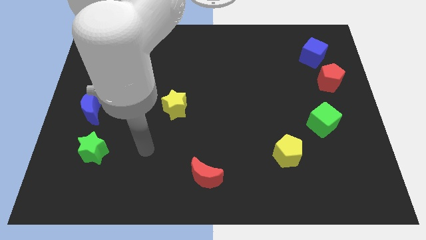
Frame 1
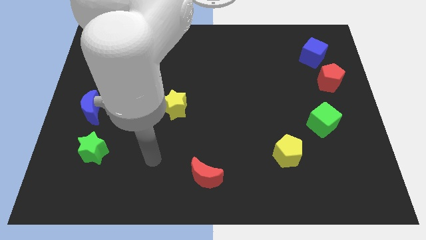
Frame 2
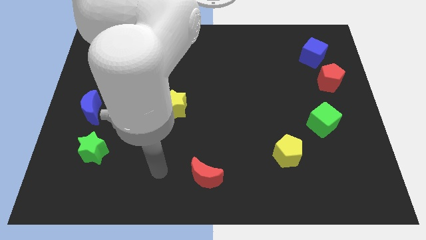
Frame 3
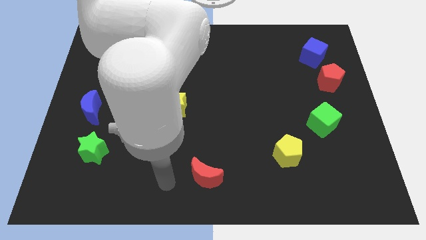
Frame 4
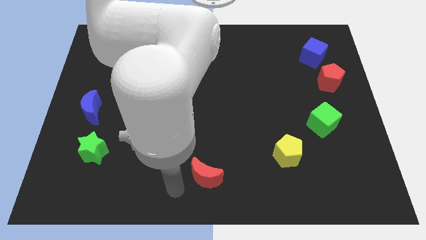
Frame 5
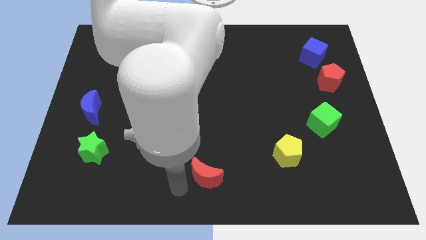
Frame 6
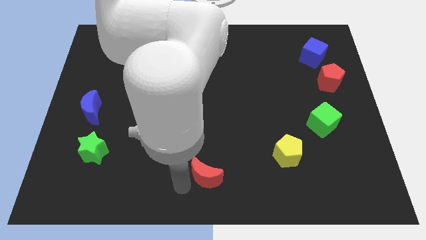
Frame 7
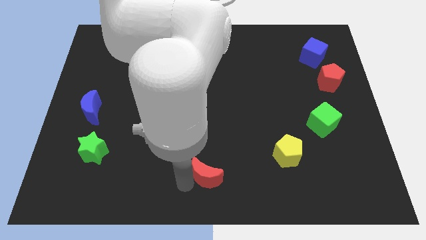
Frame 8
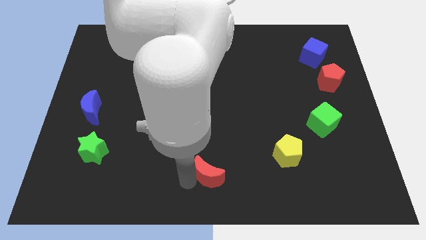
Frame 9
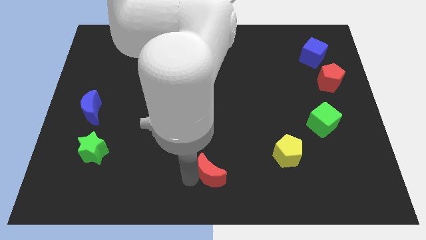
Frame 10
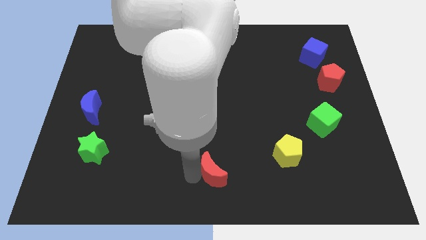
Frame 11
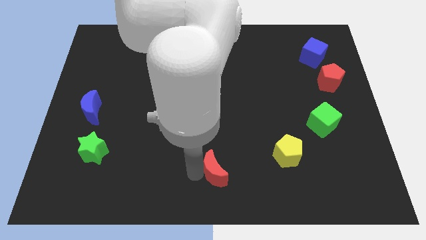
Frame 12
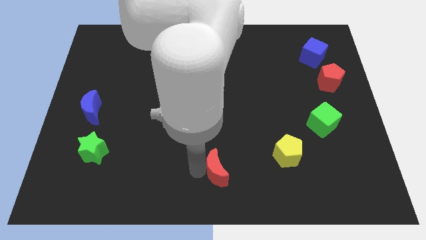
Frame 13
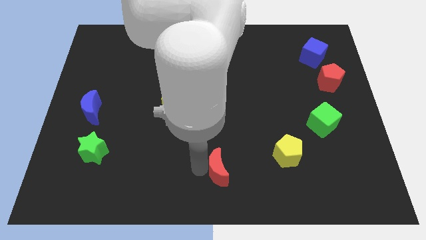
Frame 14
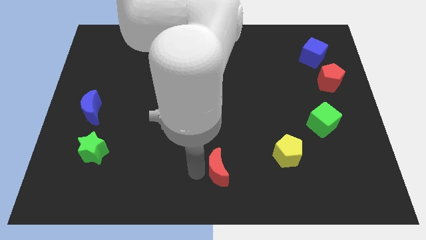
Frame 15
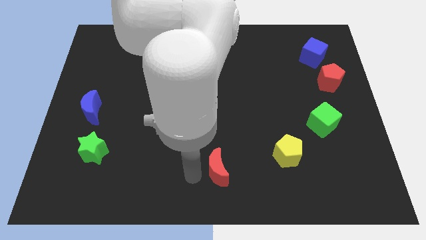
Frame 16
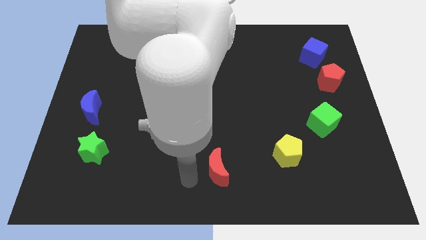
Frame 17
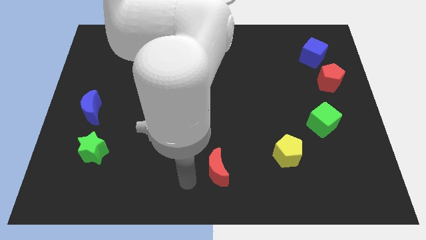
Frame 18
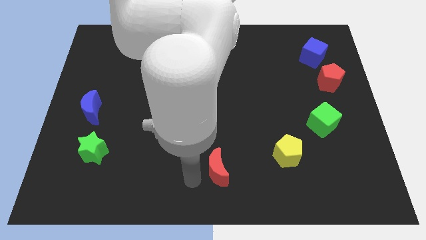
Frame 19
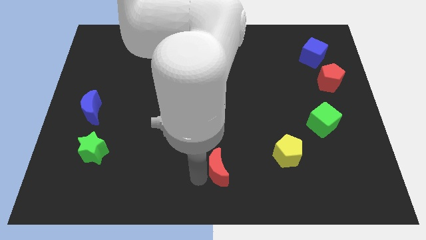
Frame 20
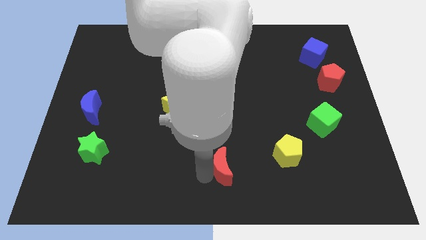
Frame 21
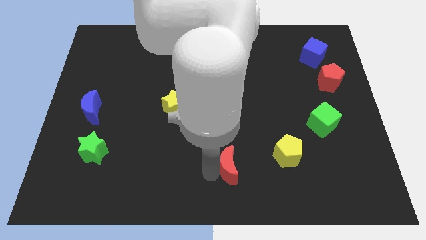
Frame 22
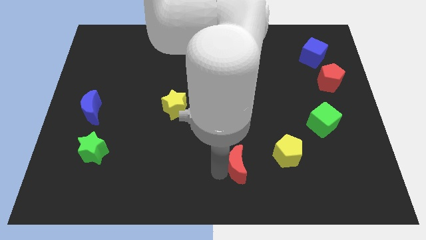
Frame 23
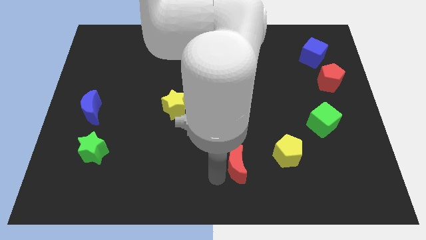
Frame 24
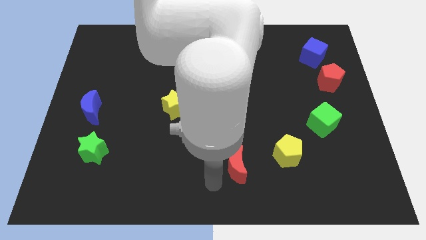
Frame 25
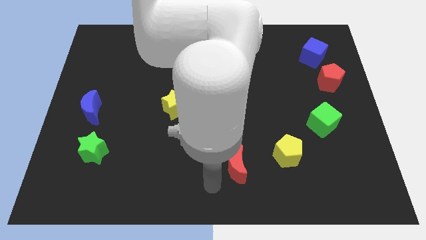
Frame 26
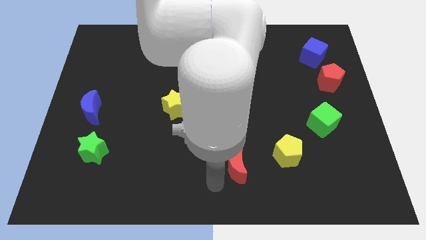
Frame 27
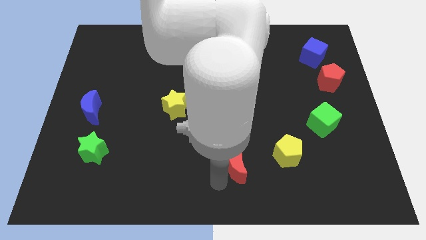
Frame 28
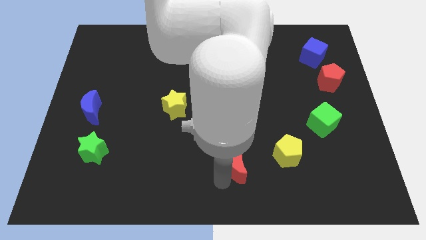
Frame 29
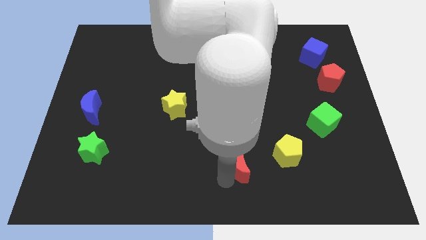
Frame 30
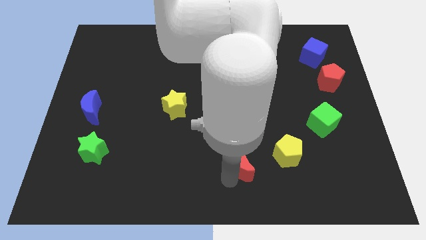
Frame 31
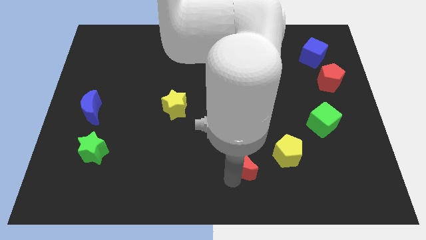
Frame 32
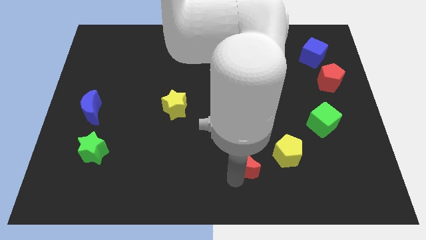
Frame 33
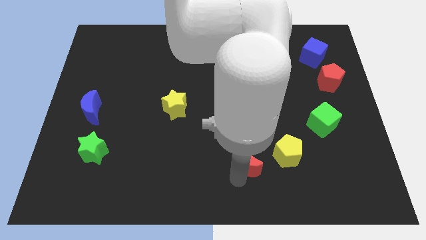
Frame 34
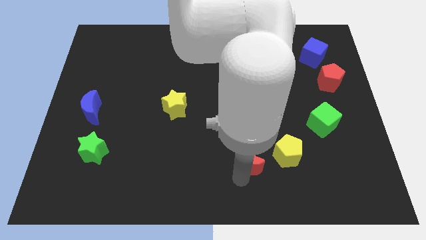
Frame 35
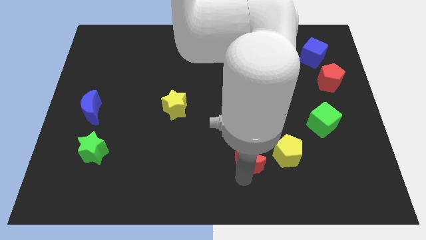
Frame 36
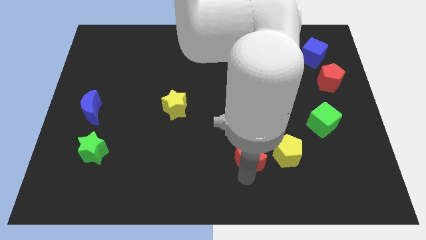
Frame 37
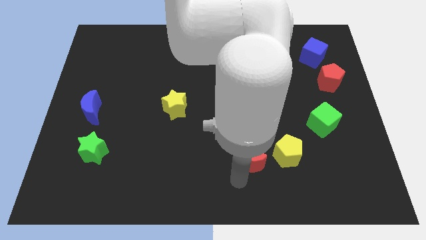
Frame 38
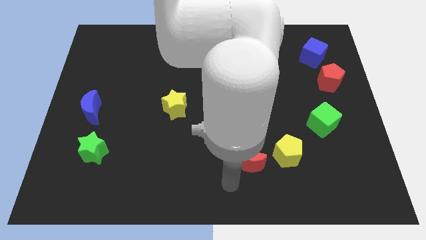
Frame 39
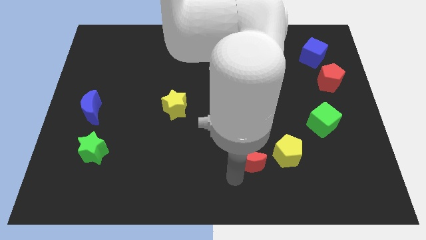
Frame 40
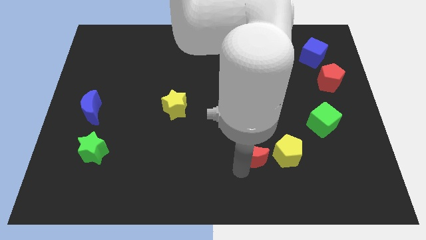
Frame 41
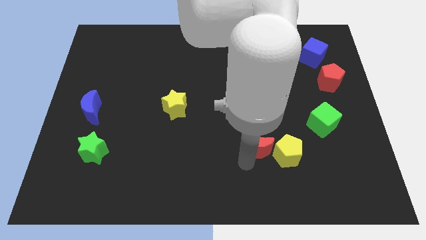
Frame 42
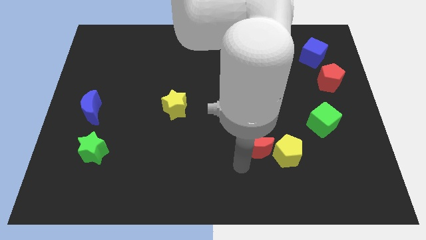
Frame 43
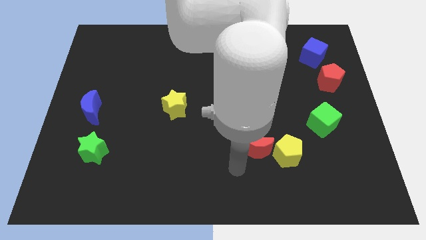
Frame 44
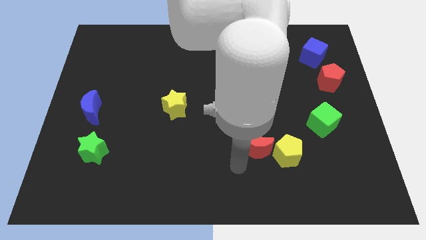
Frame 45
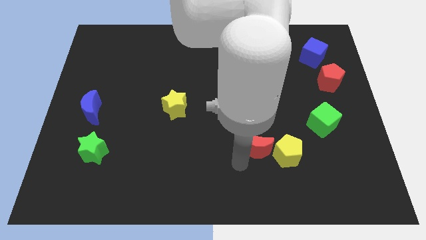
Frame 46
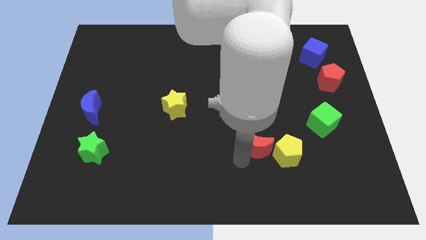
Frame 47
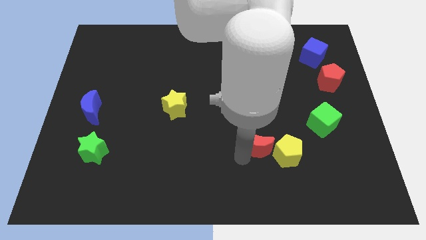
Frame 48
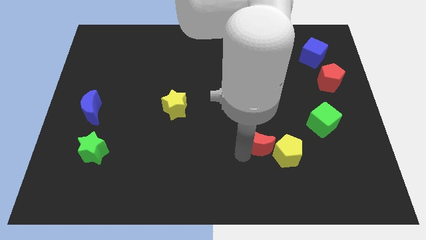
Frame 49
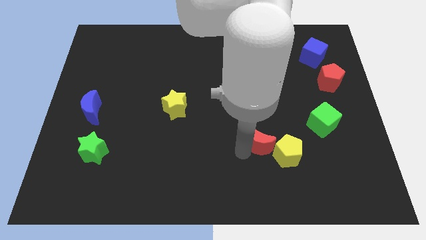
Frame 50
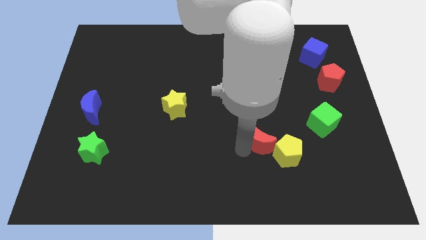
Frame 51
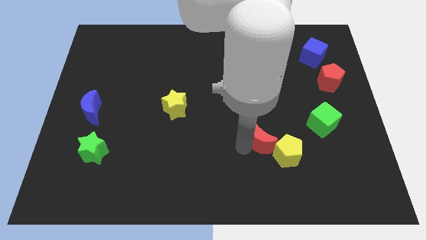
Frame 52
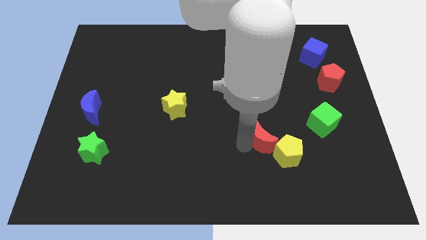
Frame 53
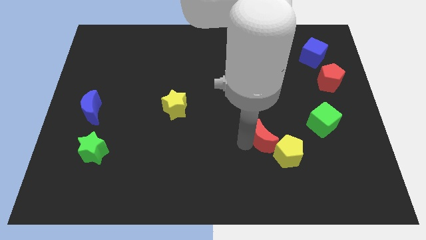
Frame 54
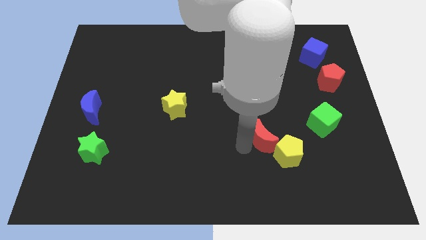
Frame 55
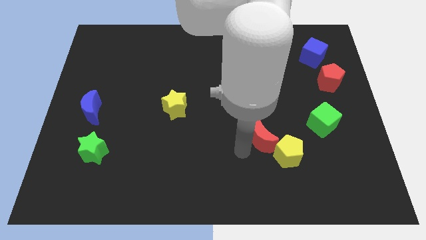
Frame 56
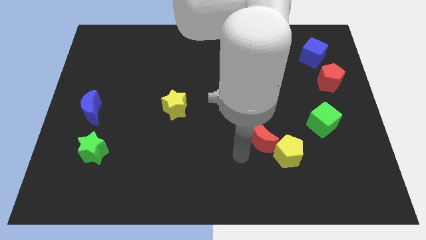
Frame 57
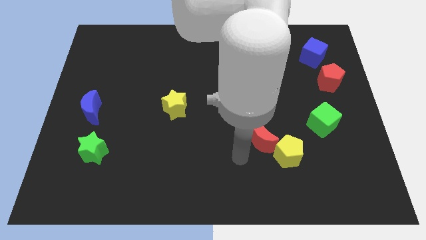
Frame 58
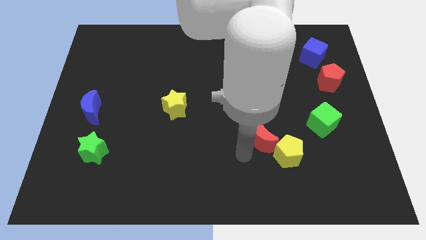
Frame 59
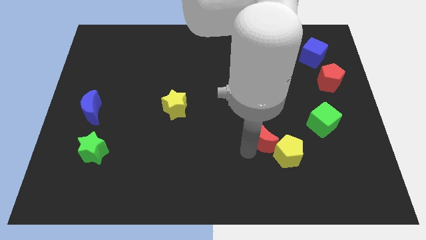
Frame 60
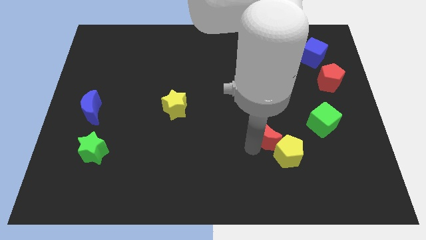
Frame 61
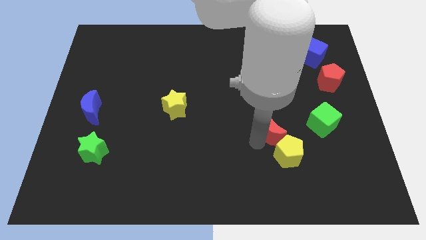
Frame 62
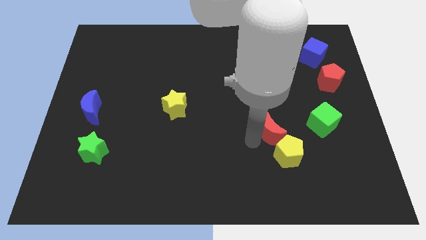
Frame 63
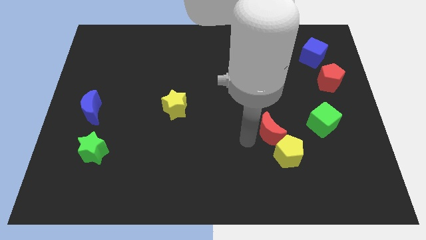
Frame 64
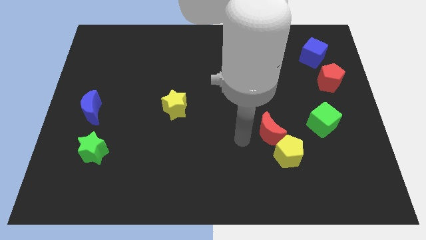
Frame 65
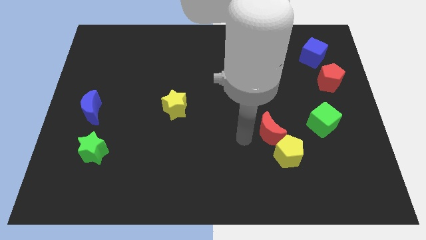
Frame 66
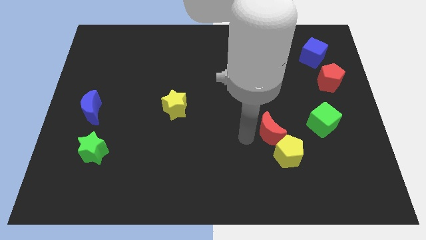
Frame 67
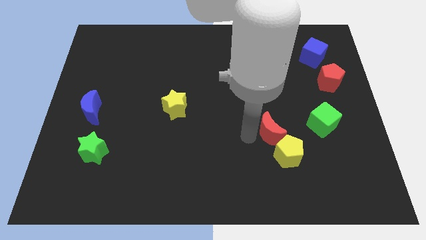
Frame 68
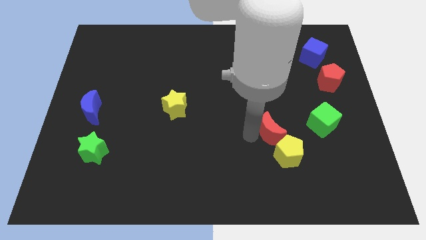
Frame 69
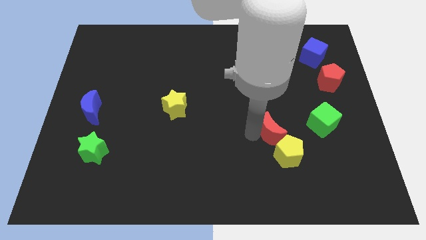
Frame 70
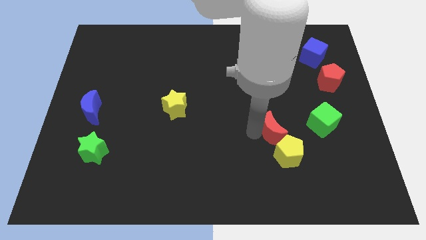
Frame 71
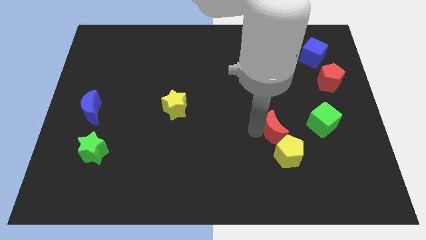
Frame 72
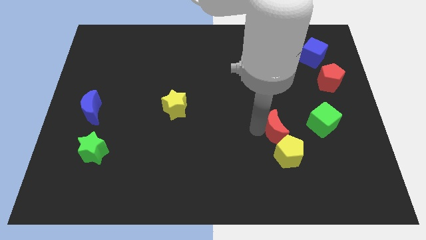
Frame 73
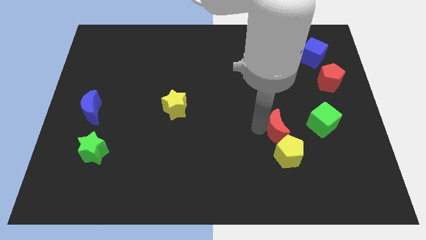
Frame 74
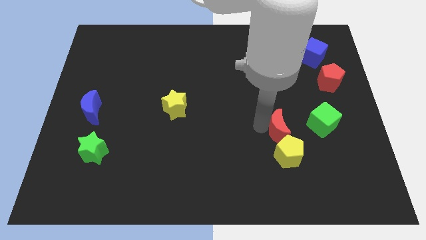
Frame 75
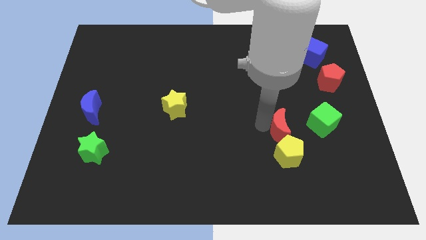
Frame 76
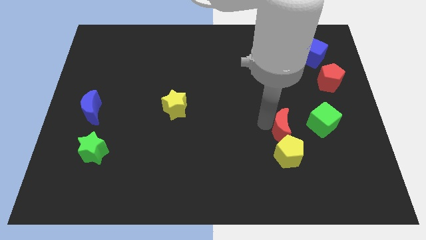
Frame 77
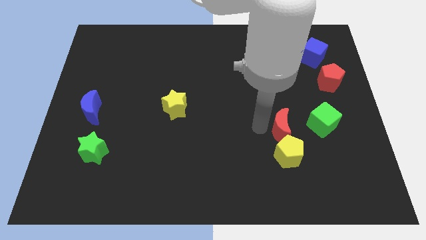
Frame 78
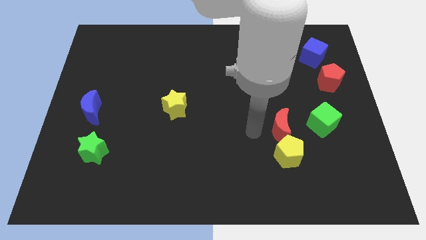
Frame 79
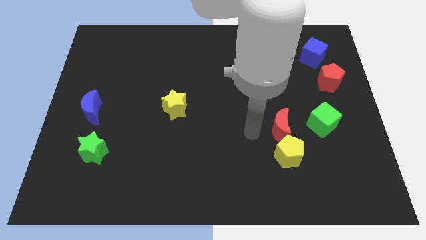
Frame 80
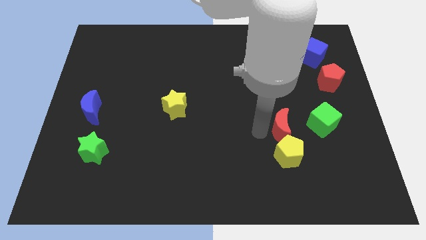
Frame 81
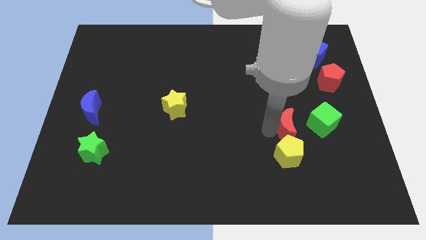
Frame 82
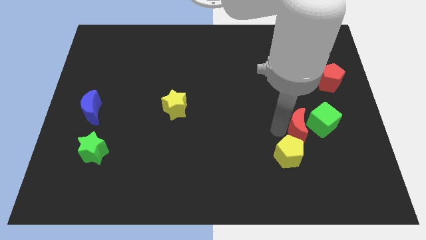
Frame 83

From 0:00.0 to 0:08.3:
put the red moon towards the green cube
